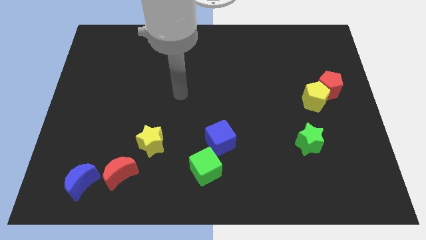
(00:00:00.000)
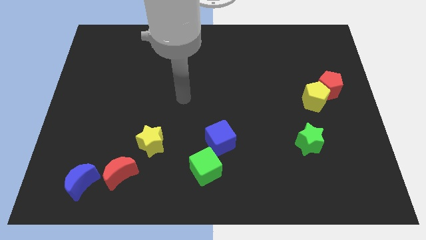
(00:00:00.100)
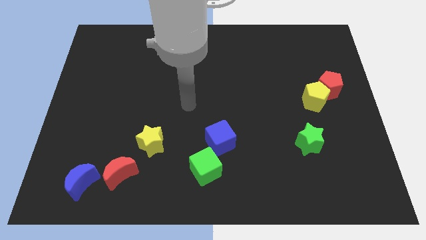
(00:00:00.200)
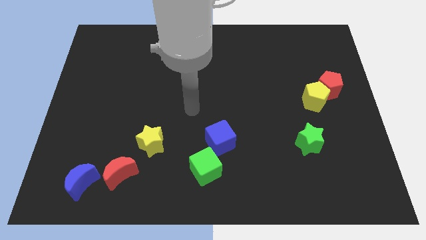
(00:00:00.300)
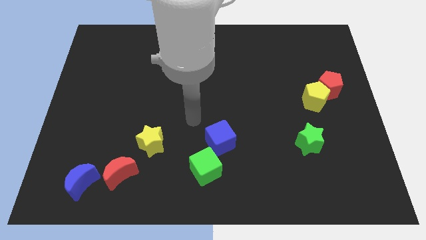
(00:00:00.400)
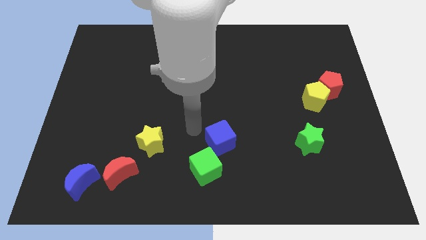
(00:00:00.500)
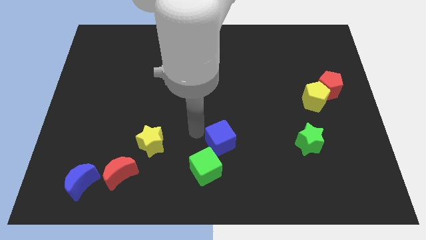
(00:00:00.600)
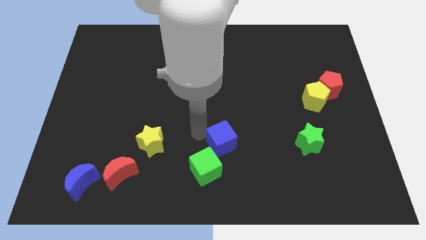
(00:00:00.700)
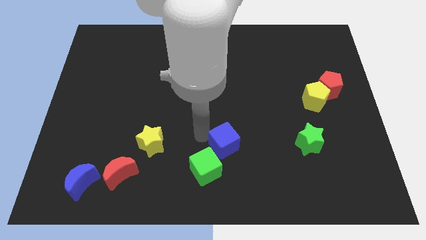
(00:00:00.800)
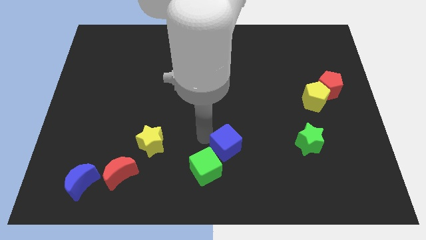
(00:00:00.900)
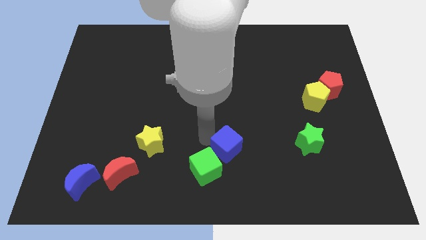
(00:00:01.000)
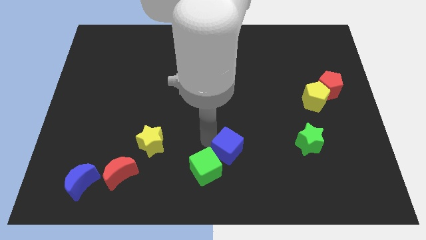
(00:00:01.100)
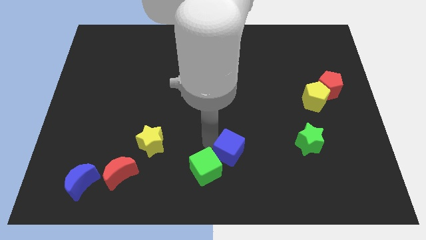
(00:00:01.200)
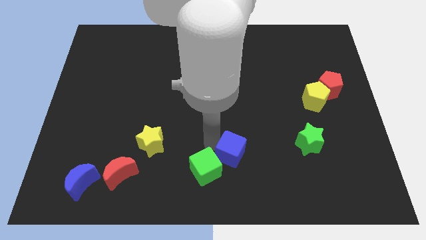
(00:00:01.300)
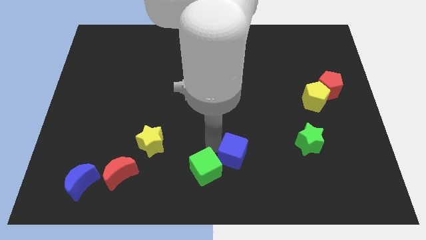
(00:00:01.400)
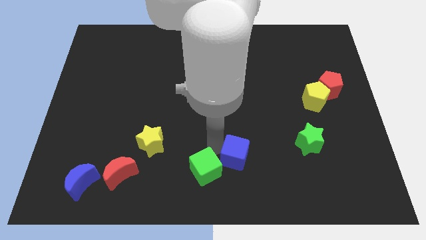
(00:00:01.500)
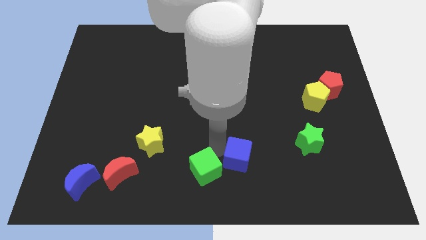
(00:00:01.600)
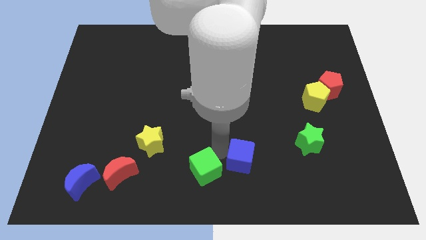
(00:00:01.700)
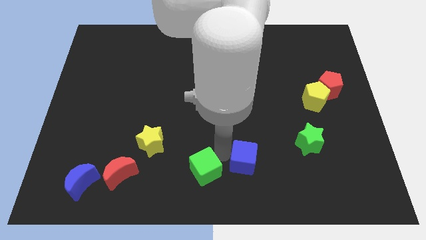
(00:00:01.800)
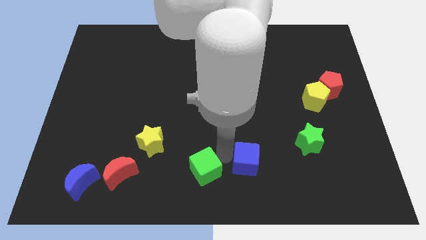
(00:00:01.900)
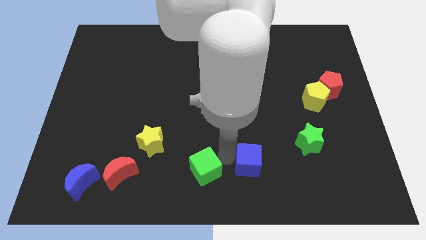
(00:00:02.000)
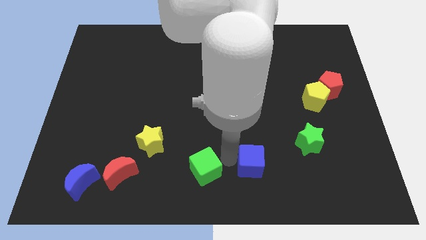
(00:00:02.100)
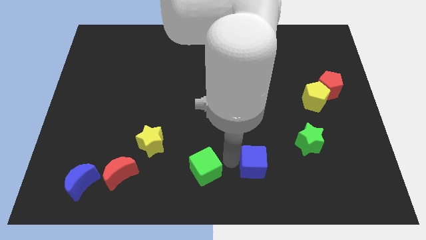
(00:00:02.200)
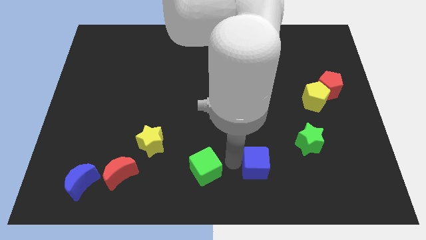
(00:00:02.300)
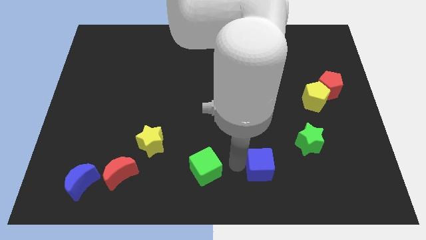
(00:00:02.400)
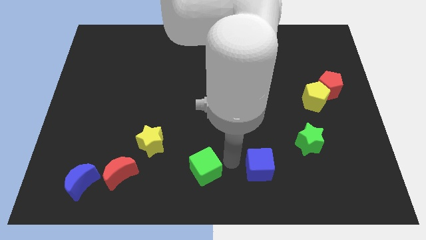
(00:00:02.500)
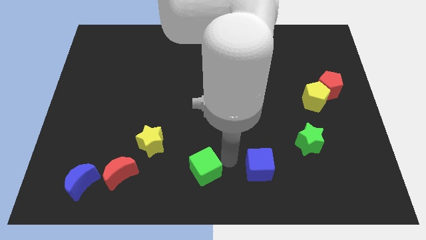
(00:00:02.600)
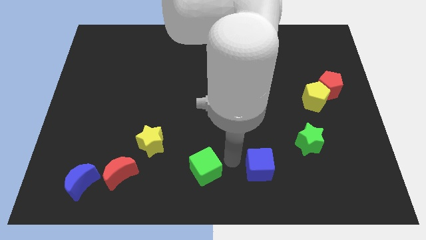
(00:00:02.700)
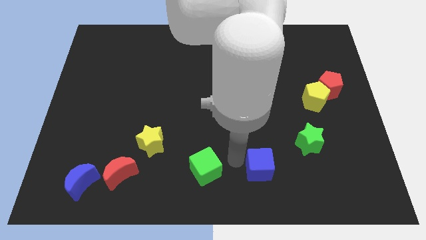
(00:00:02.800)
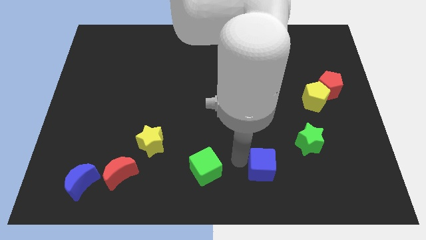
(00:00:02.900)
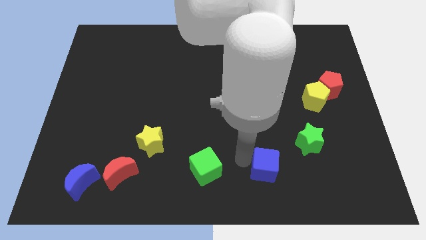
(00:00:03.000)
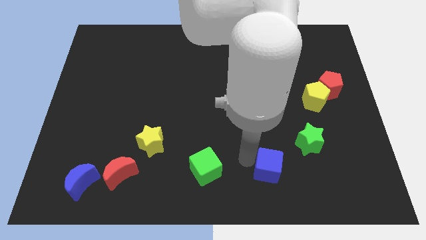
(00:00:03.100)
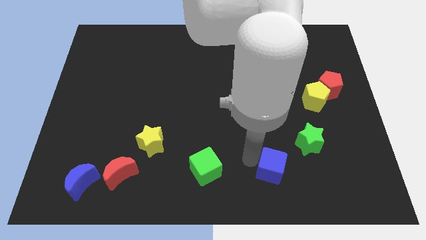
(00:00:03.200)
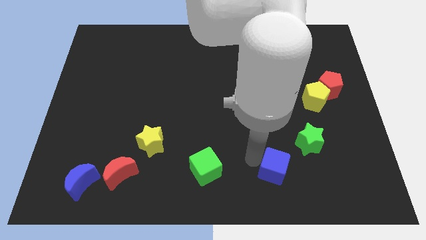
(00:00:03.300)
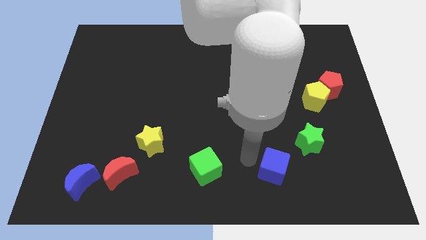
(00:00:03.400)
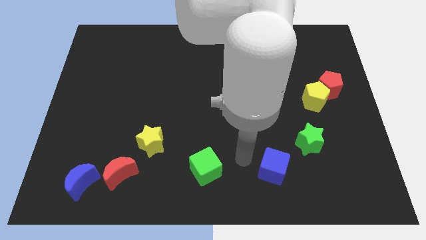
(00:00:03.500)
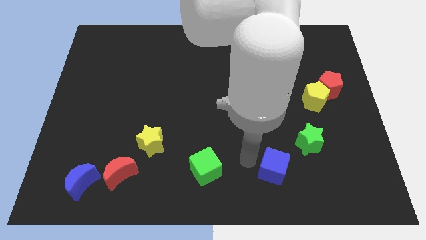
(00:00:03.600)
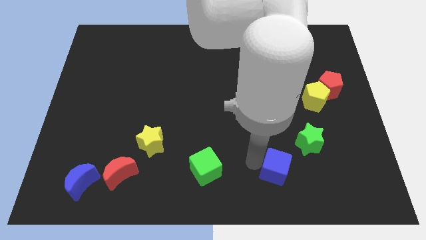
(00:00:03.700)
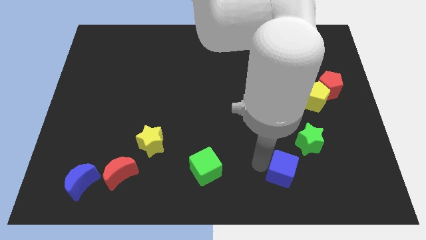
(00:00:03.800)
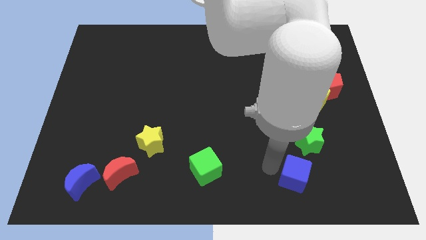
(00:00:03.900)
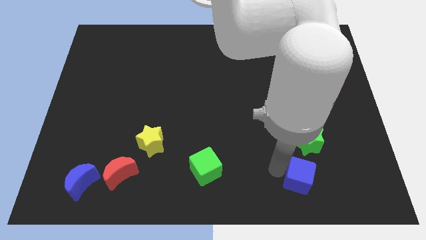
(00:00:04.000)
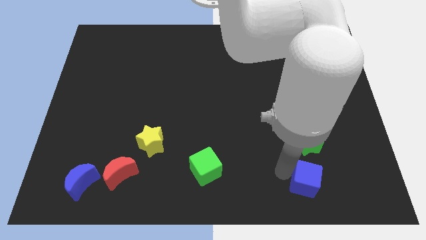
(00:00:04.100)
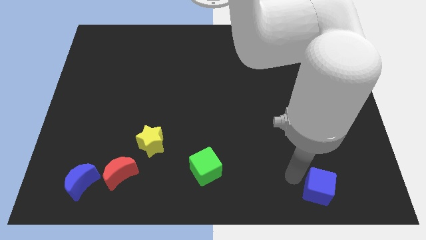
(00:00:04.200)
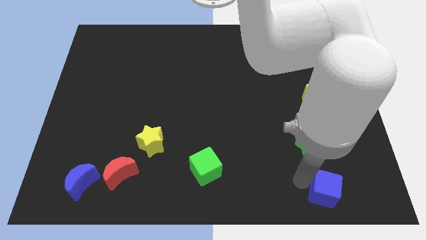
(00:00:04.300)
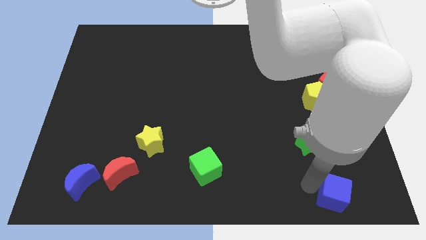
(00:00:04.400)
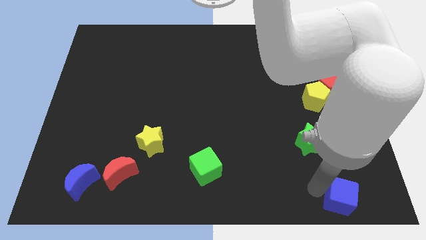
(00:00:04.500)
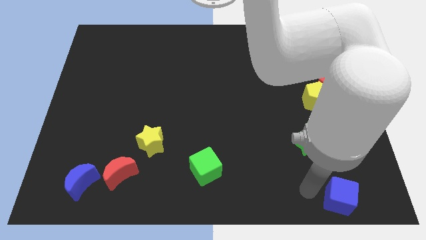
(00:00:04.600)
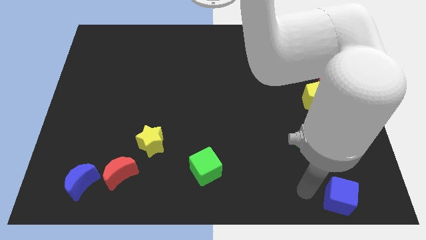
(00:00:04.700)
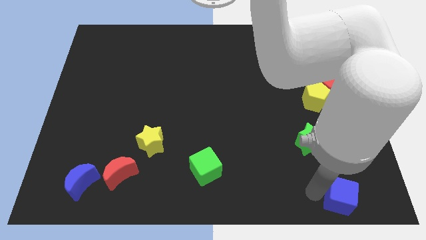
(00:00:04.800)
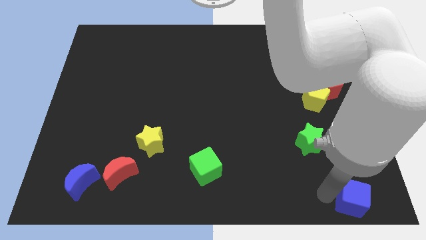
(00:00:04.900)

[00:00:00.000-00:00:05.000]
put the blue cube to the lower right corner

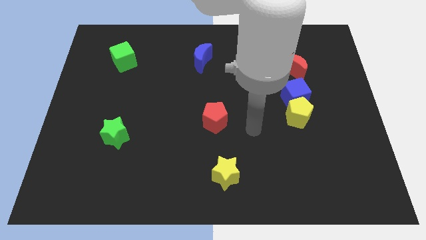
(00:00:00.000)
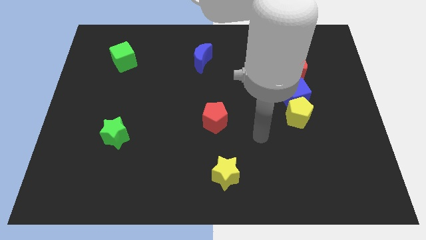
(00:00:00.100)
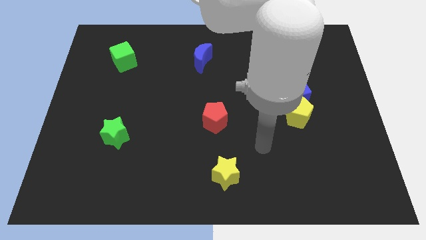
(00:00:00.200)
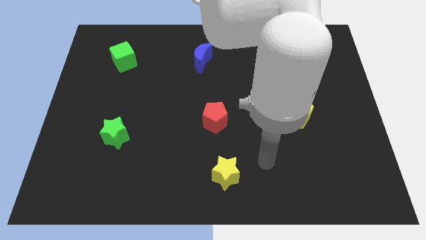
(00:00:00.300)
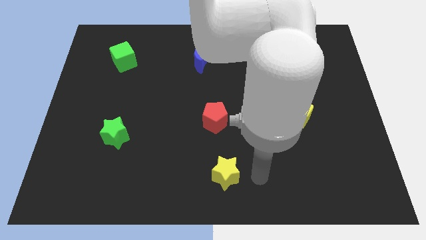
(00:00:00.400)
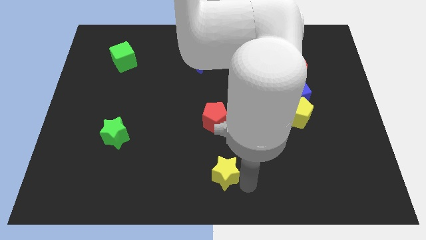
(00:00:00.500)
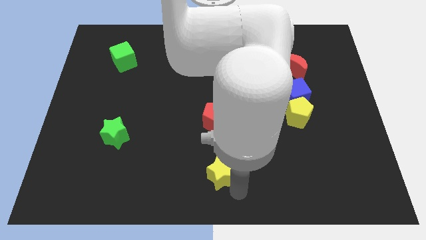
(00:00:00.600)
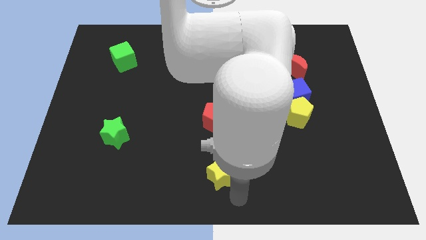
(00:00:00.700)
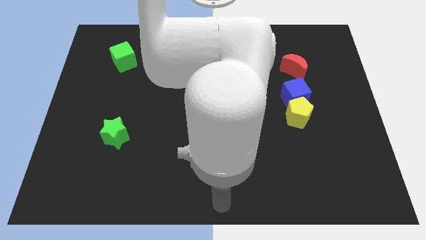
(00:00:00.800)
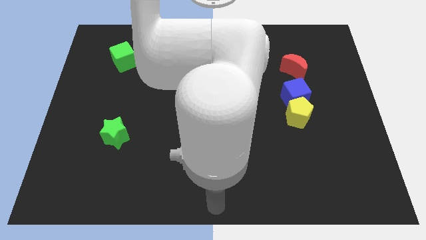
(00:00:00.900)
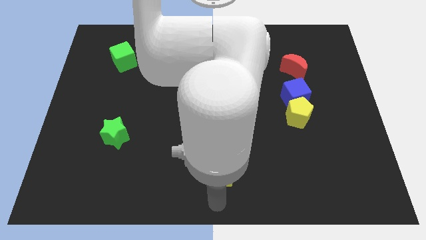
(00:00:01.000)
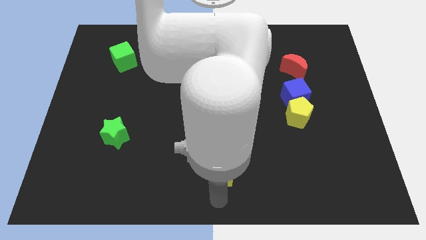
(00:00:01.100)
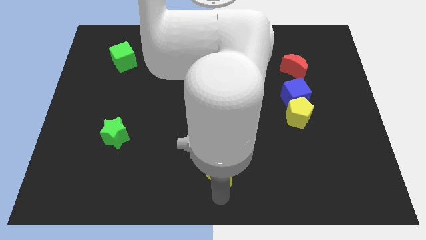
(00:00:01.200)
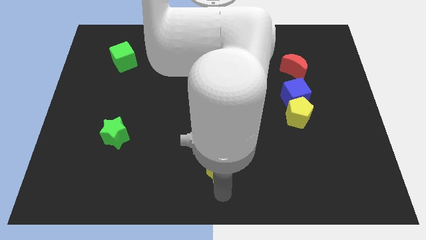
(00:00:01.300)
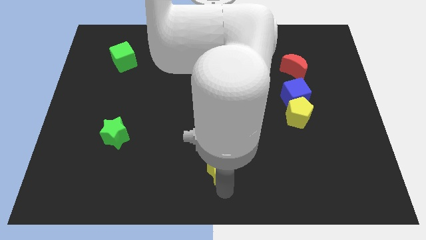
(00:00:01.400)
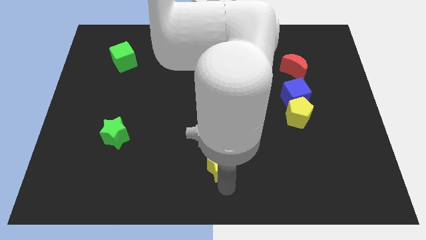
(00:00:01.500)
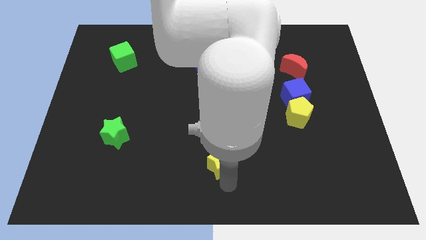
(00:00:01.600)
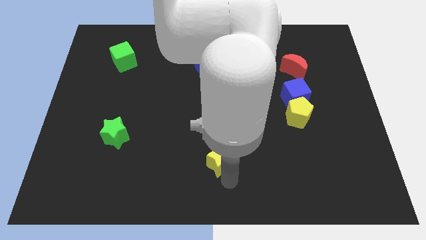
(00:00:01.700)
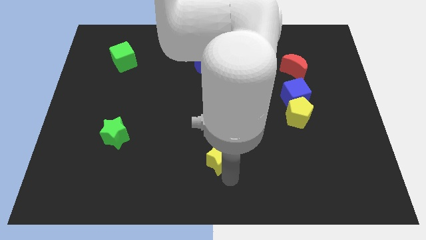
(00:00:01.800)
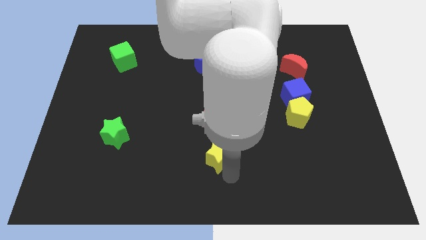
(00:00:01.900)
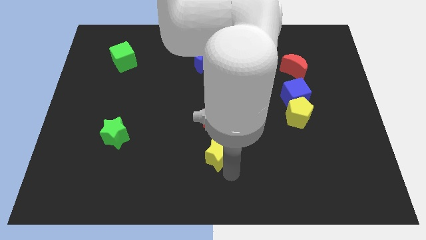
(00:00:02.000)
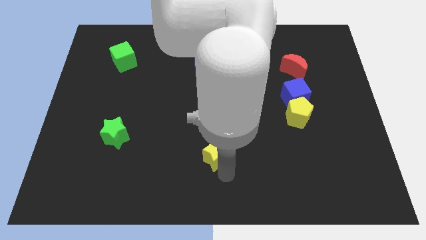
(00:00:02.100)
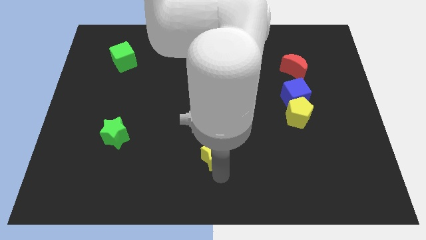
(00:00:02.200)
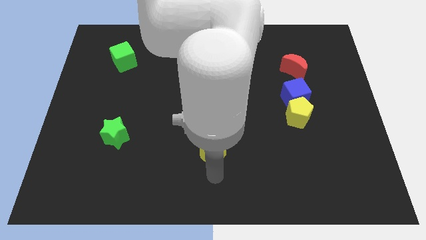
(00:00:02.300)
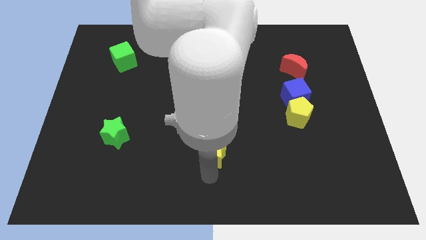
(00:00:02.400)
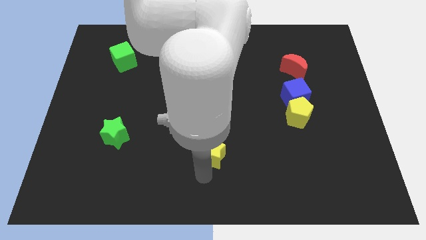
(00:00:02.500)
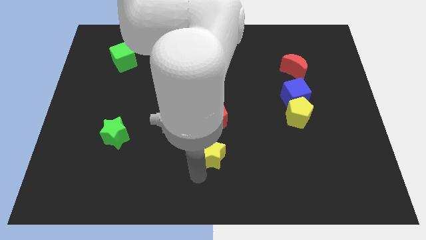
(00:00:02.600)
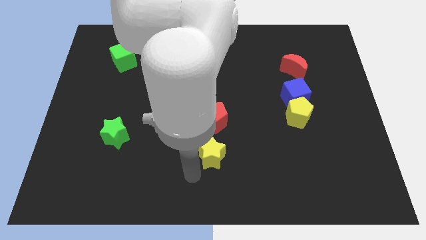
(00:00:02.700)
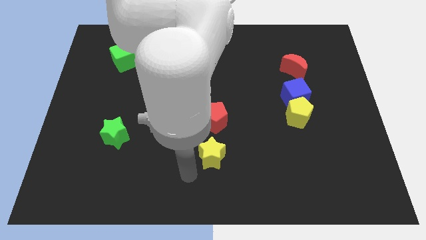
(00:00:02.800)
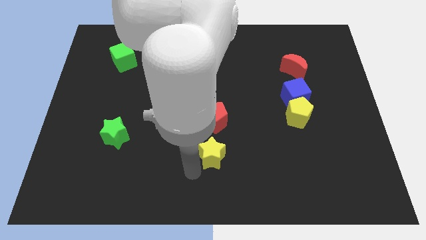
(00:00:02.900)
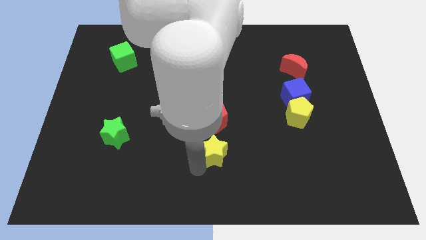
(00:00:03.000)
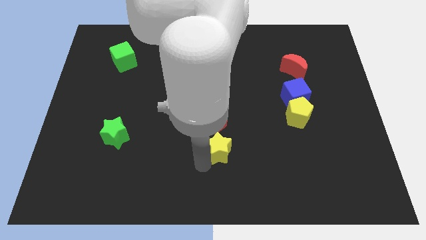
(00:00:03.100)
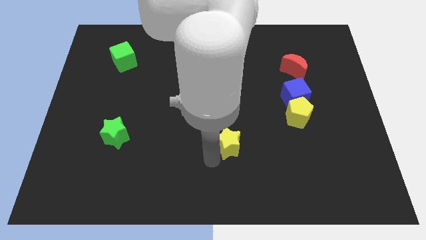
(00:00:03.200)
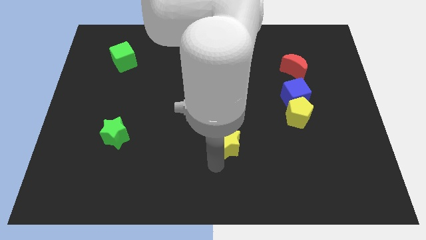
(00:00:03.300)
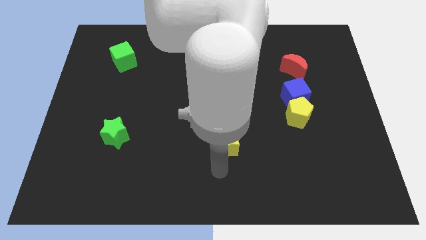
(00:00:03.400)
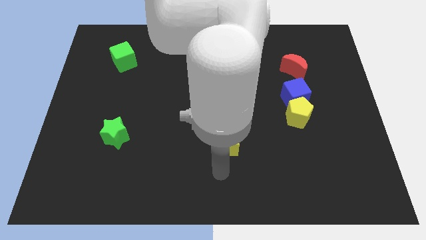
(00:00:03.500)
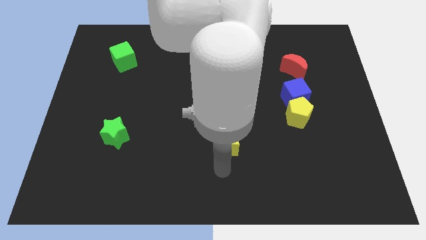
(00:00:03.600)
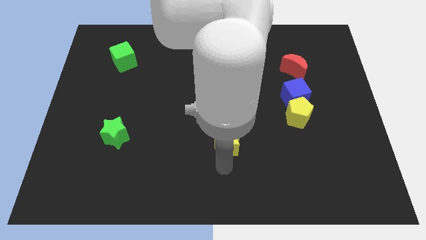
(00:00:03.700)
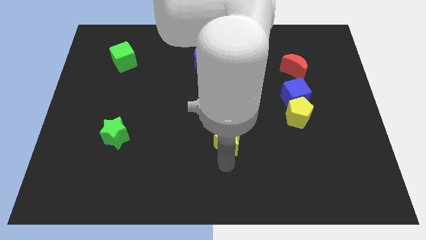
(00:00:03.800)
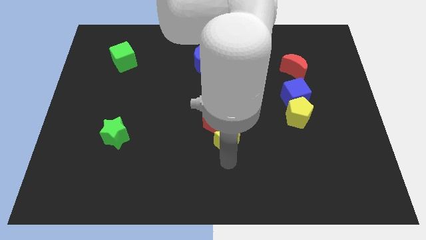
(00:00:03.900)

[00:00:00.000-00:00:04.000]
put the yellow star to the middle of the board
